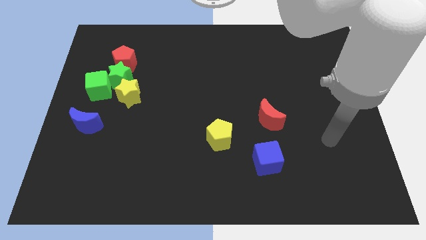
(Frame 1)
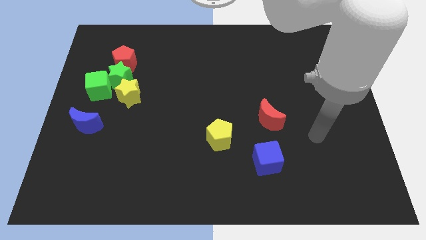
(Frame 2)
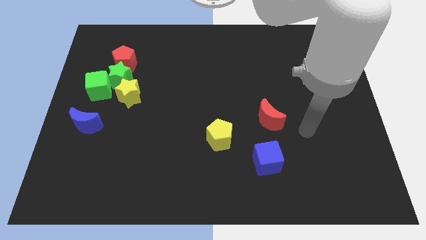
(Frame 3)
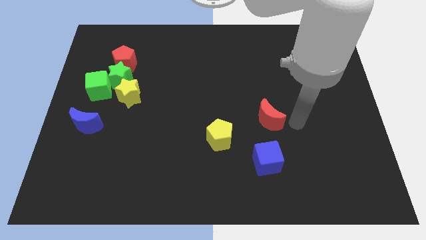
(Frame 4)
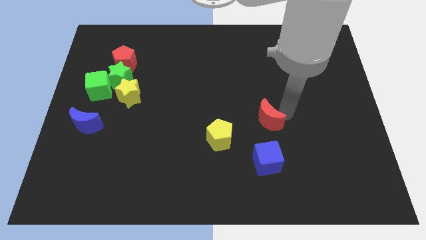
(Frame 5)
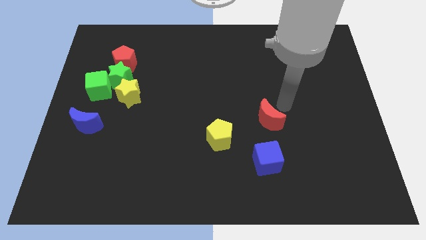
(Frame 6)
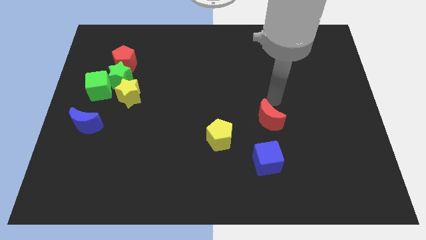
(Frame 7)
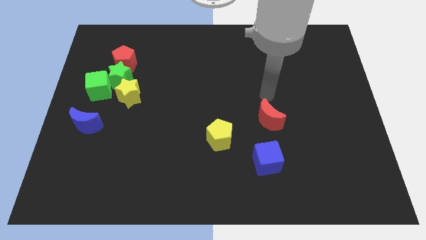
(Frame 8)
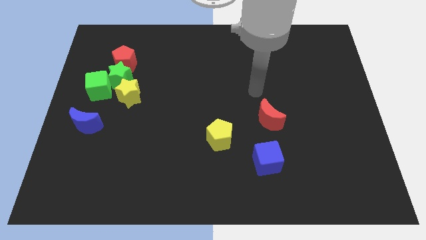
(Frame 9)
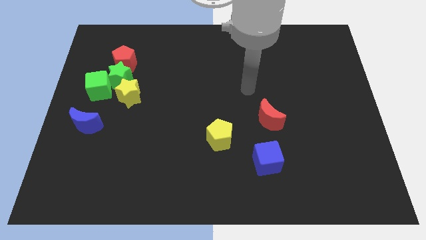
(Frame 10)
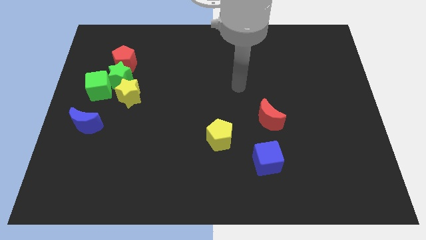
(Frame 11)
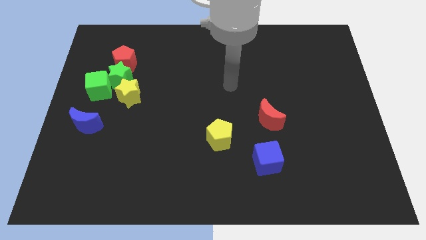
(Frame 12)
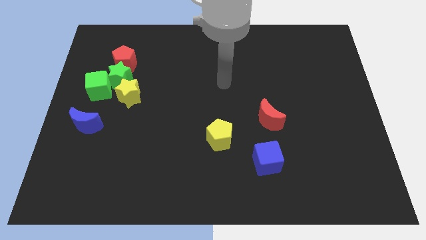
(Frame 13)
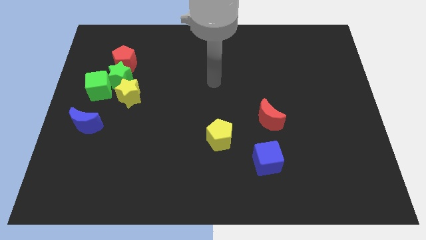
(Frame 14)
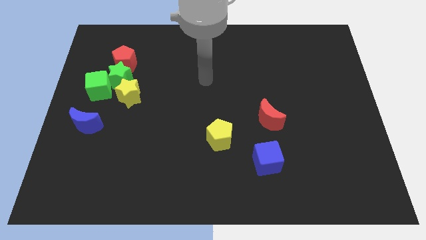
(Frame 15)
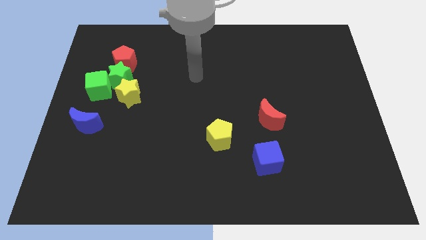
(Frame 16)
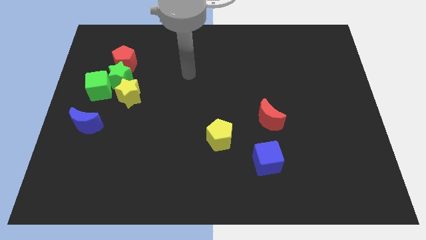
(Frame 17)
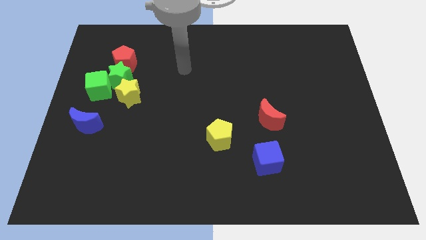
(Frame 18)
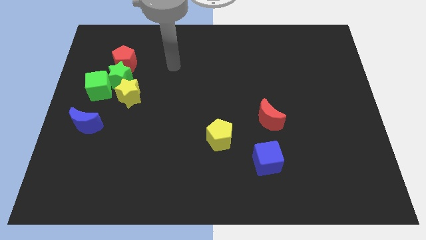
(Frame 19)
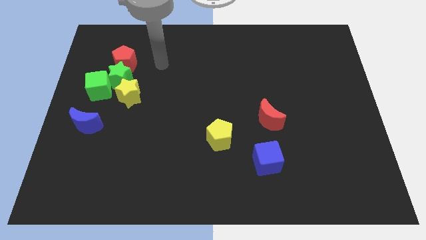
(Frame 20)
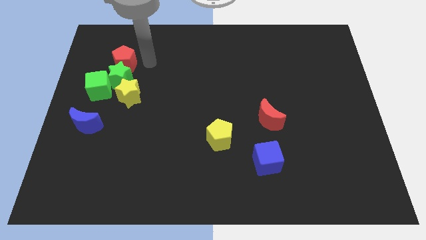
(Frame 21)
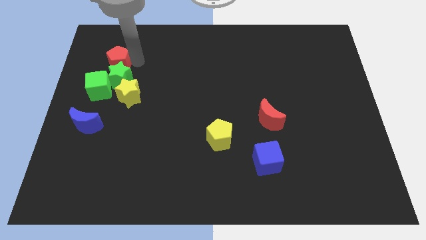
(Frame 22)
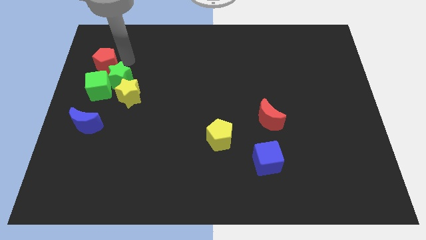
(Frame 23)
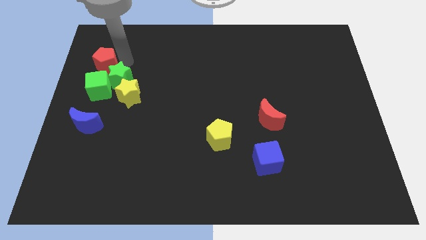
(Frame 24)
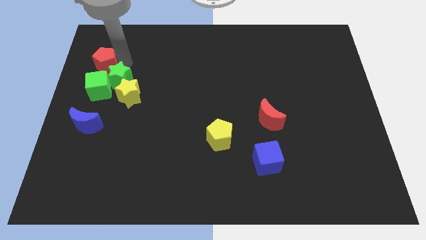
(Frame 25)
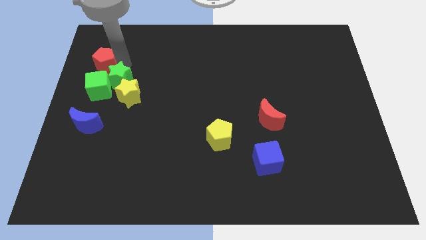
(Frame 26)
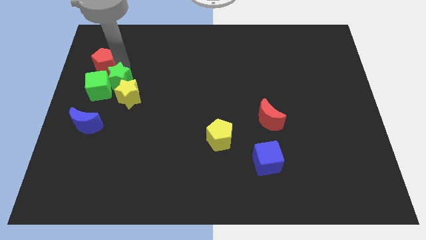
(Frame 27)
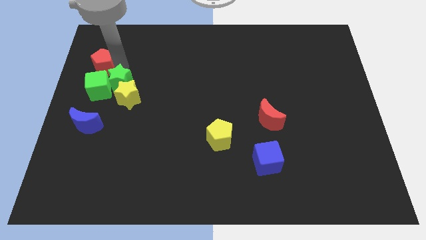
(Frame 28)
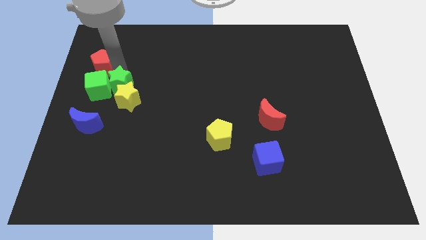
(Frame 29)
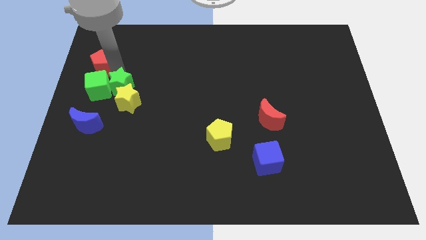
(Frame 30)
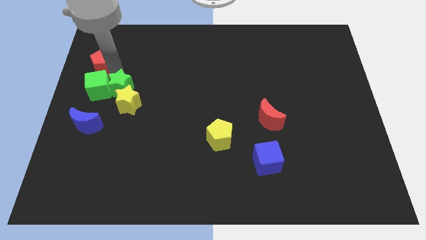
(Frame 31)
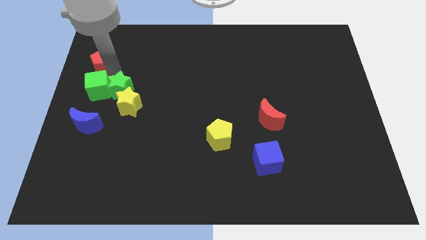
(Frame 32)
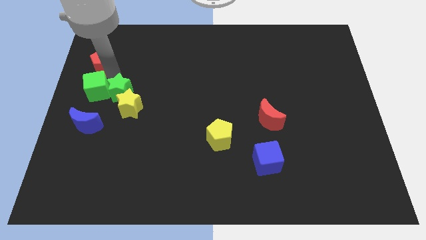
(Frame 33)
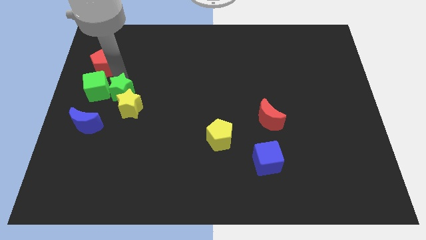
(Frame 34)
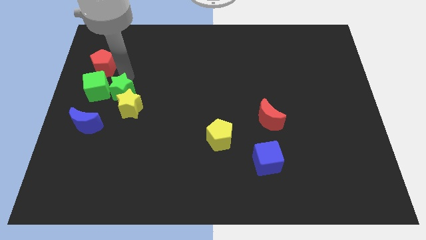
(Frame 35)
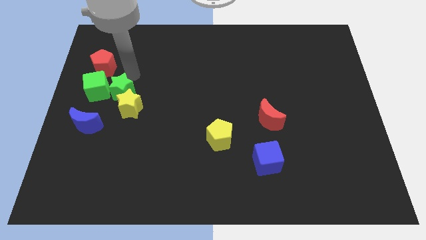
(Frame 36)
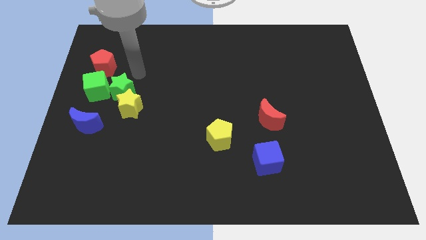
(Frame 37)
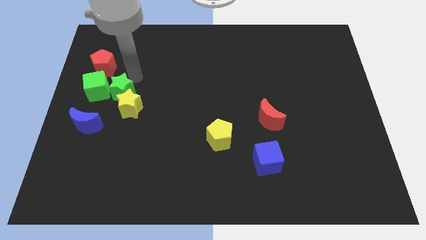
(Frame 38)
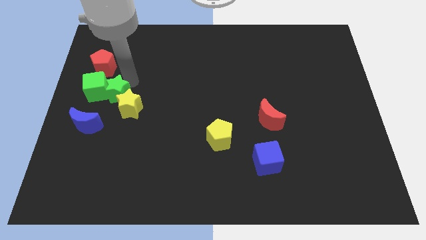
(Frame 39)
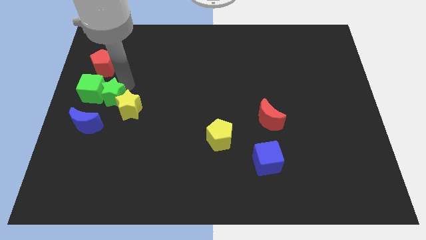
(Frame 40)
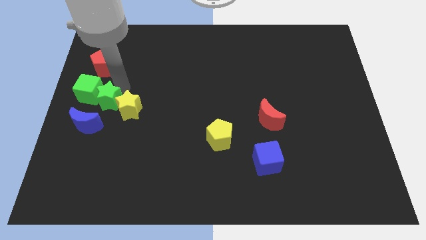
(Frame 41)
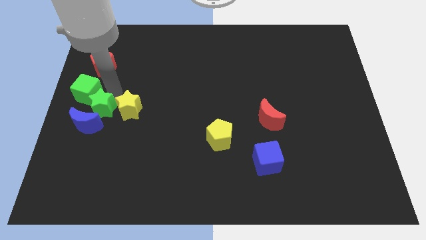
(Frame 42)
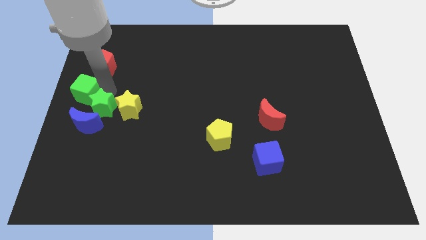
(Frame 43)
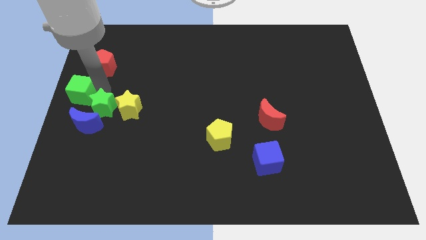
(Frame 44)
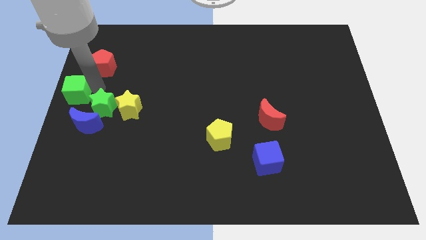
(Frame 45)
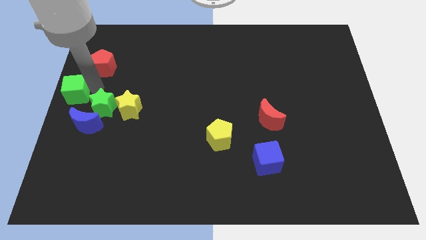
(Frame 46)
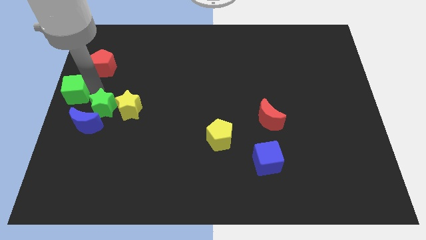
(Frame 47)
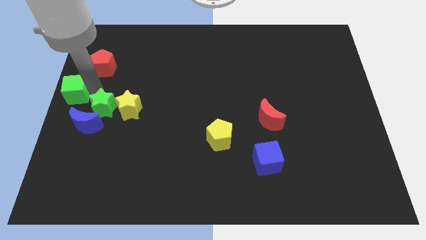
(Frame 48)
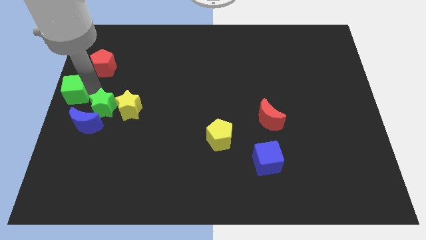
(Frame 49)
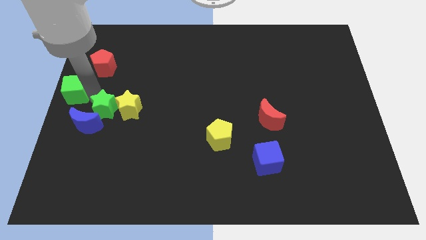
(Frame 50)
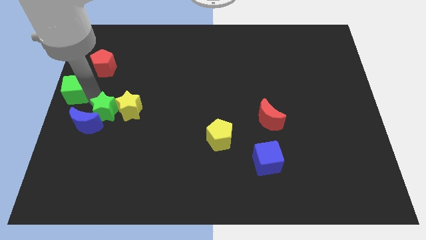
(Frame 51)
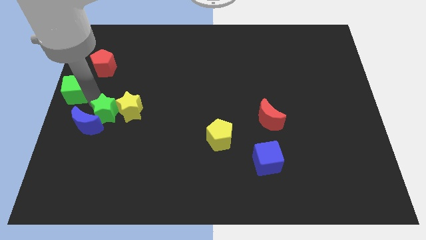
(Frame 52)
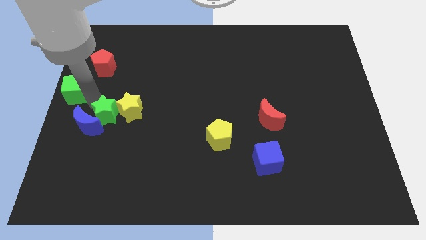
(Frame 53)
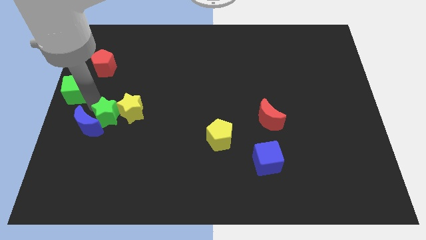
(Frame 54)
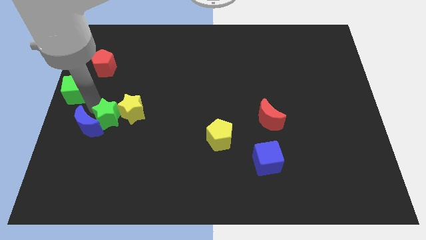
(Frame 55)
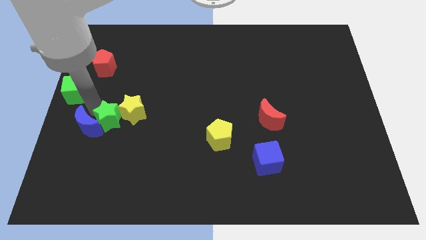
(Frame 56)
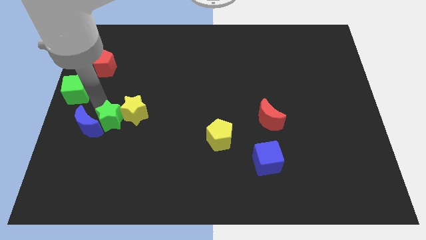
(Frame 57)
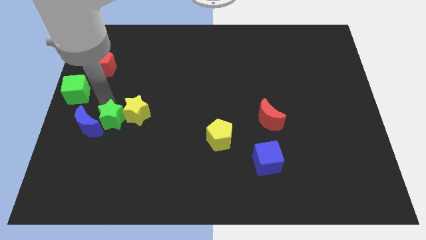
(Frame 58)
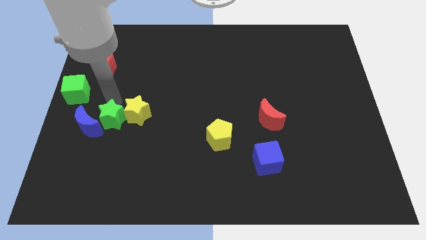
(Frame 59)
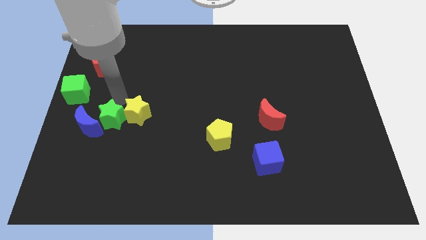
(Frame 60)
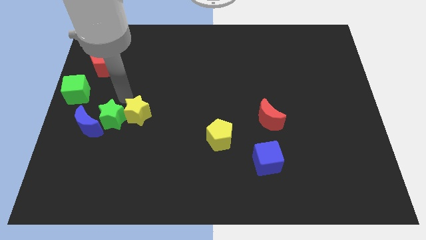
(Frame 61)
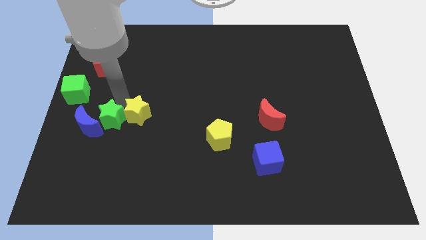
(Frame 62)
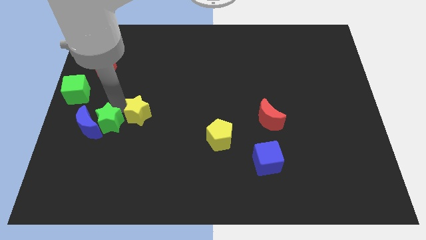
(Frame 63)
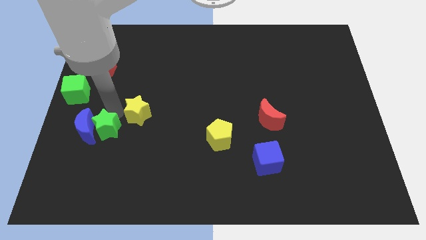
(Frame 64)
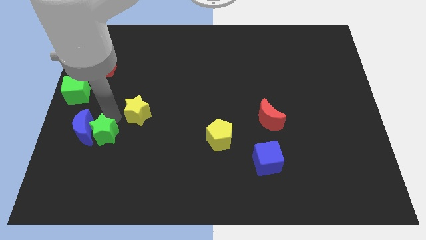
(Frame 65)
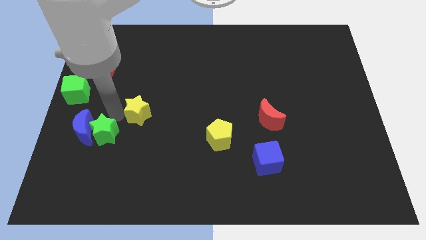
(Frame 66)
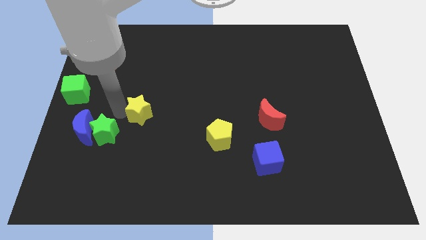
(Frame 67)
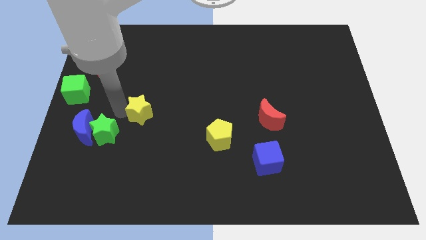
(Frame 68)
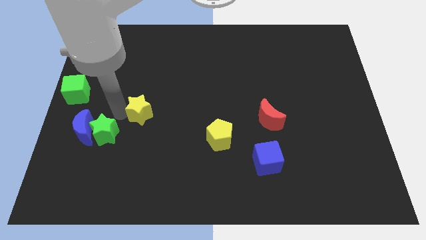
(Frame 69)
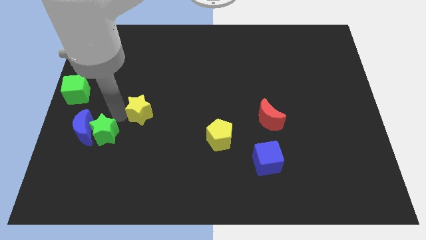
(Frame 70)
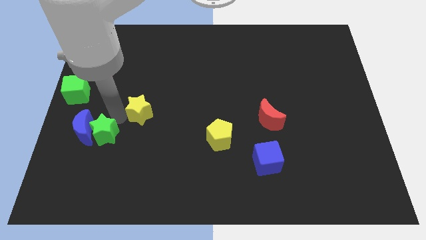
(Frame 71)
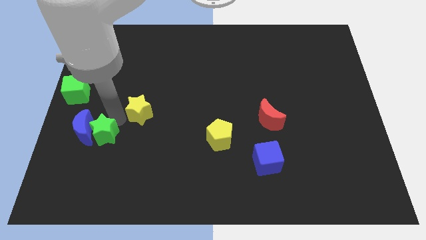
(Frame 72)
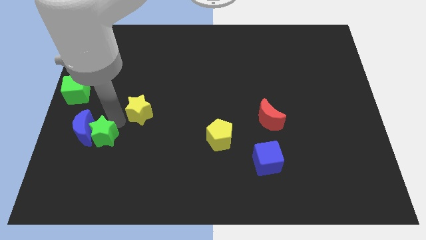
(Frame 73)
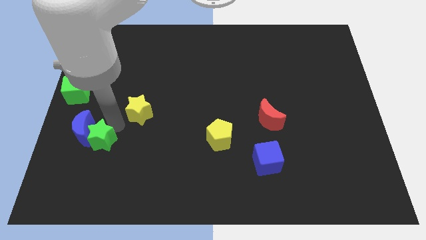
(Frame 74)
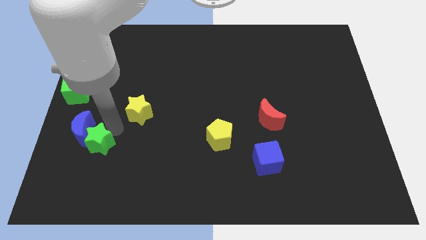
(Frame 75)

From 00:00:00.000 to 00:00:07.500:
put the green star to the bottom side of the blue moon
